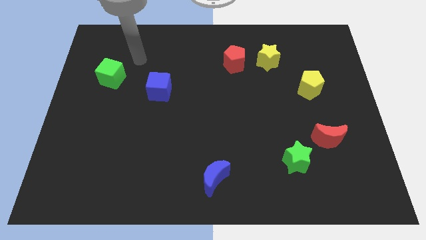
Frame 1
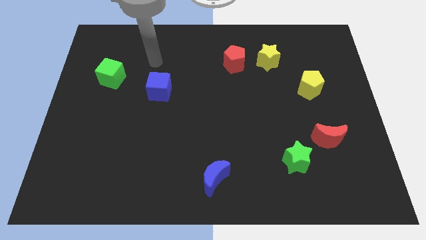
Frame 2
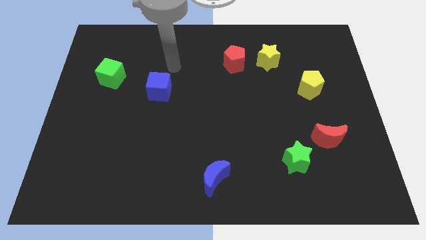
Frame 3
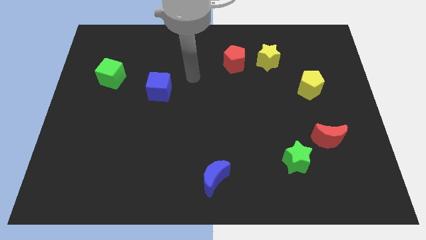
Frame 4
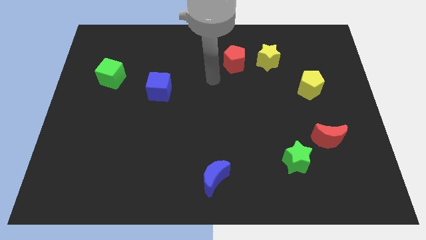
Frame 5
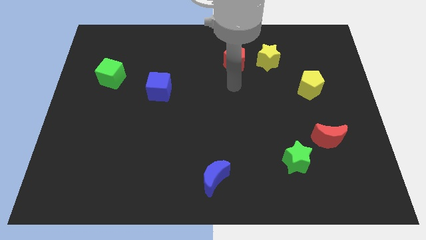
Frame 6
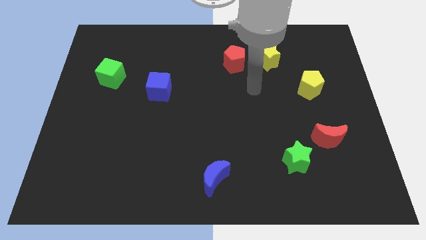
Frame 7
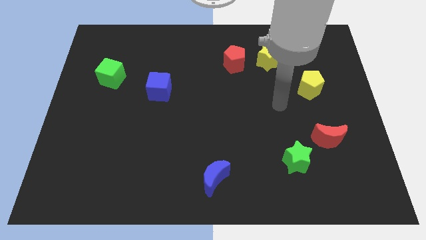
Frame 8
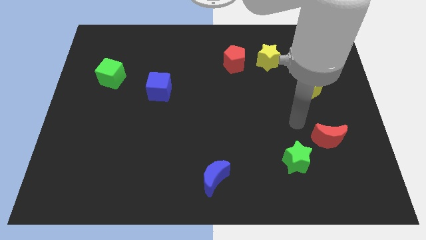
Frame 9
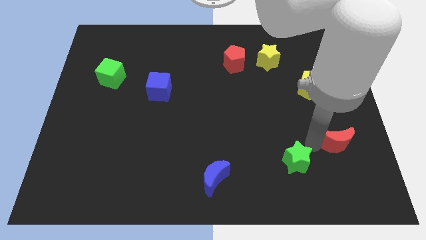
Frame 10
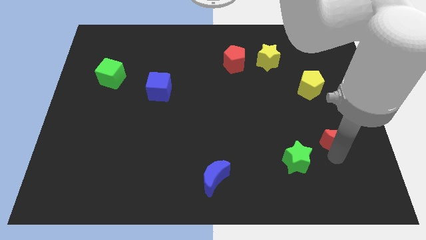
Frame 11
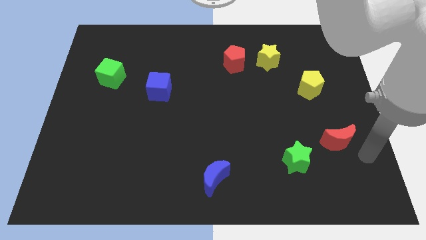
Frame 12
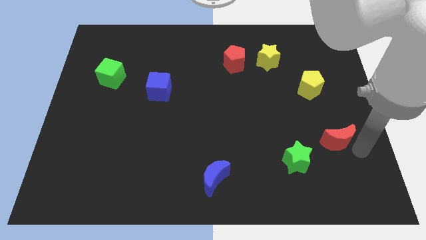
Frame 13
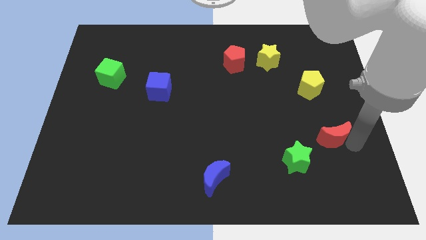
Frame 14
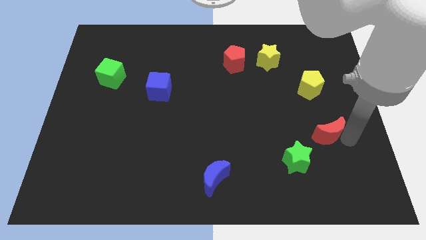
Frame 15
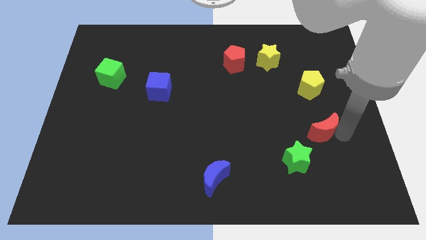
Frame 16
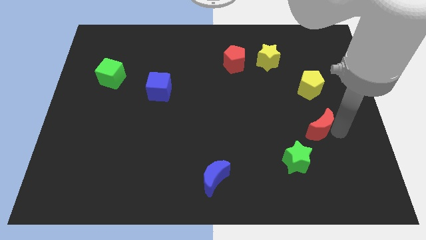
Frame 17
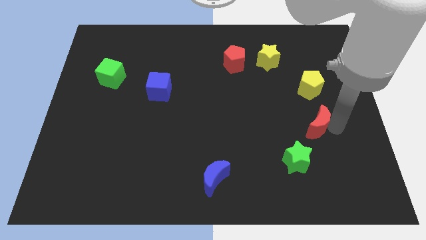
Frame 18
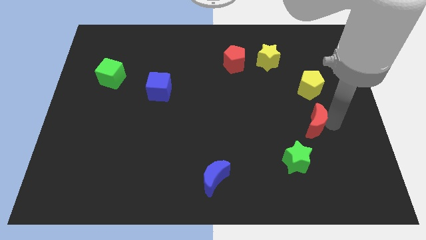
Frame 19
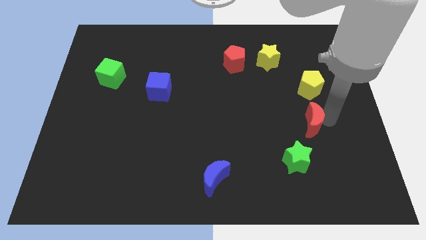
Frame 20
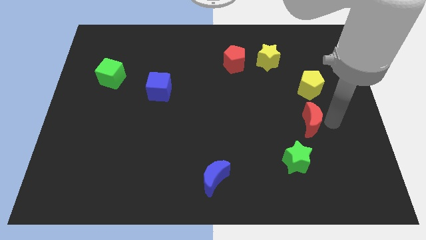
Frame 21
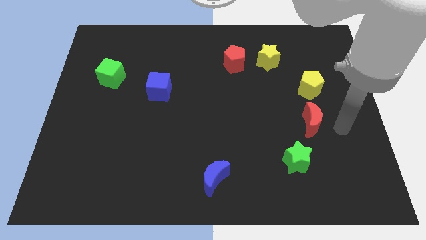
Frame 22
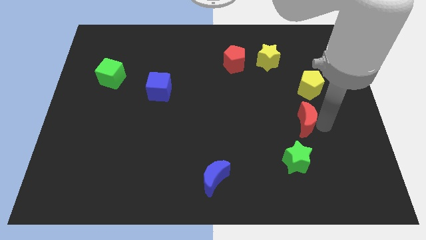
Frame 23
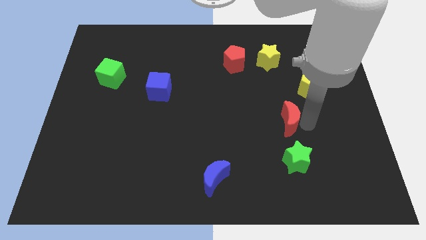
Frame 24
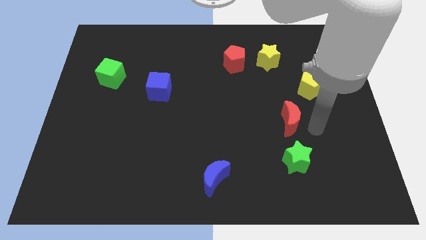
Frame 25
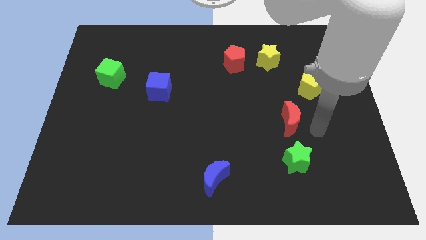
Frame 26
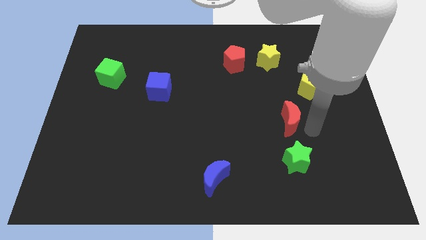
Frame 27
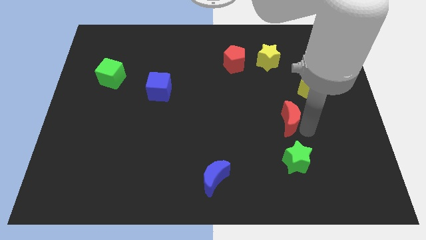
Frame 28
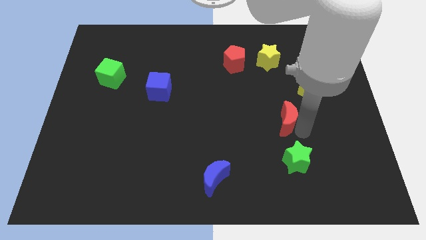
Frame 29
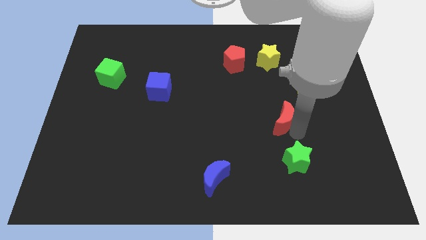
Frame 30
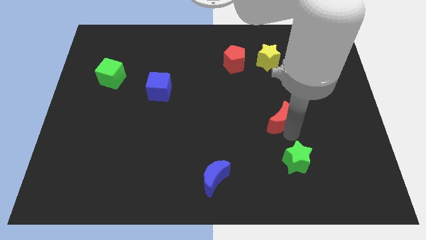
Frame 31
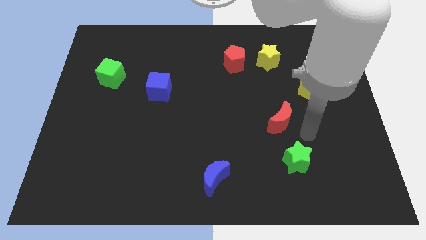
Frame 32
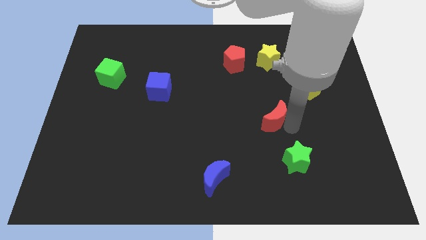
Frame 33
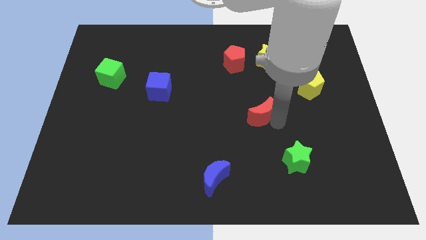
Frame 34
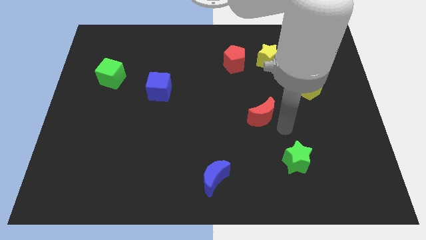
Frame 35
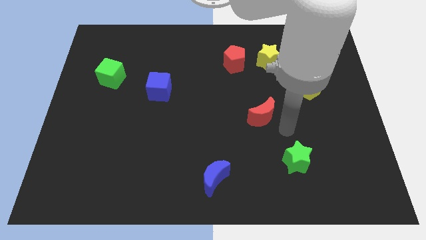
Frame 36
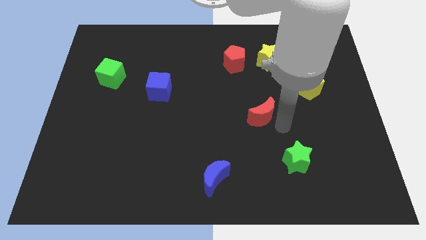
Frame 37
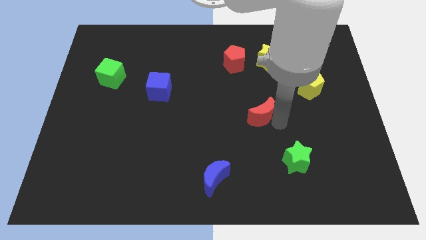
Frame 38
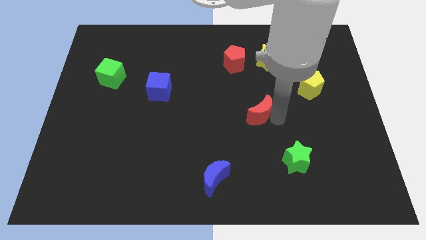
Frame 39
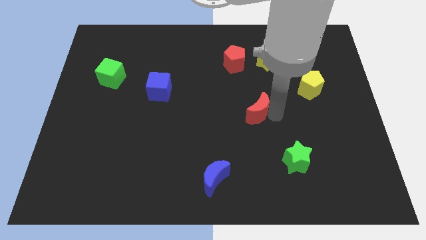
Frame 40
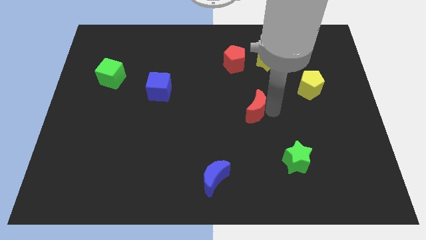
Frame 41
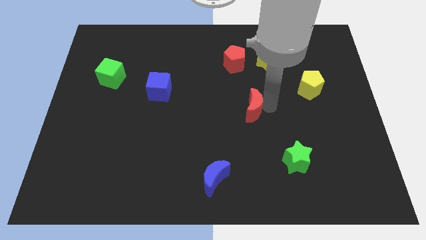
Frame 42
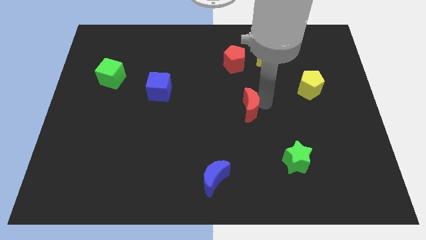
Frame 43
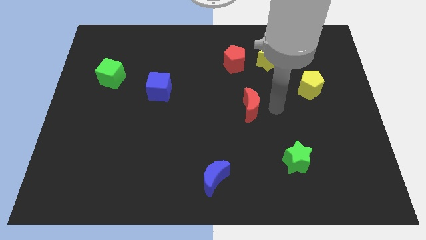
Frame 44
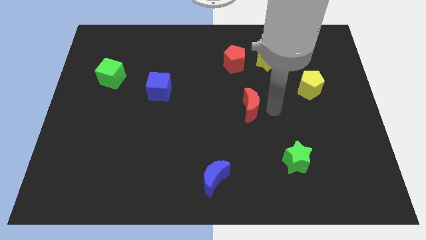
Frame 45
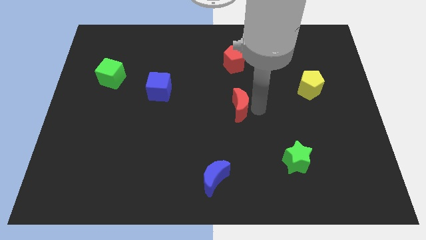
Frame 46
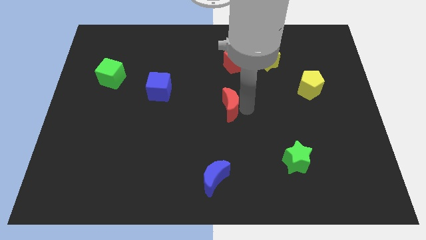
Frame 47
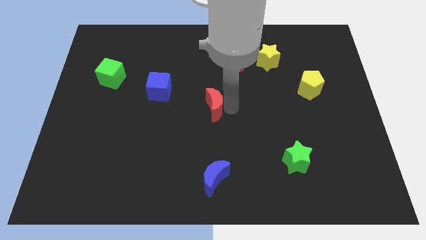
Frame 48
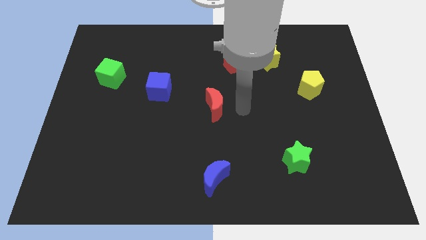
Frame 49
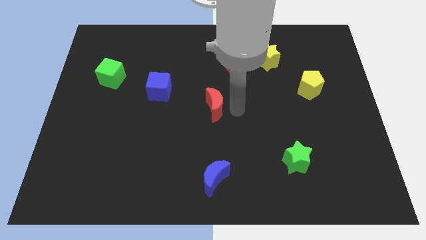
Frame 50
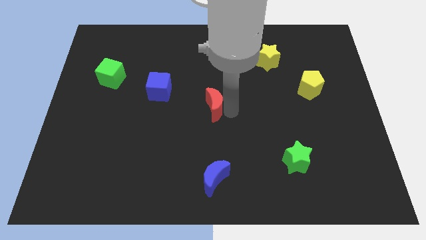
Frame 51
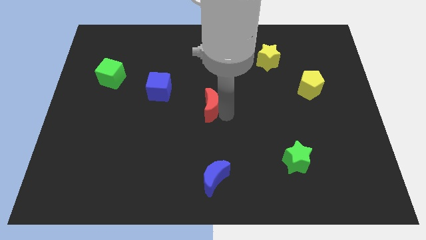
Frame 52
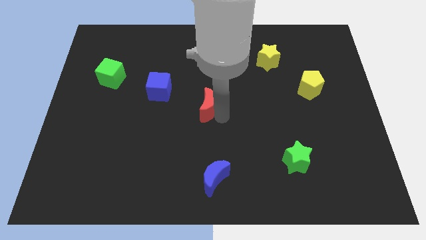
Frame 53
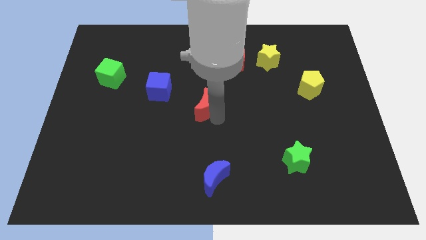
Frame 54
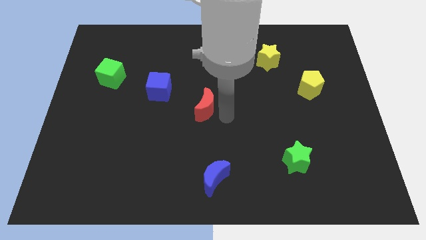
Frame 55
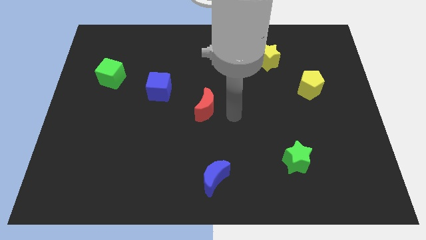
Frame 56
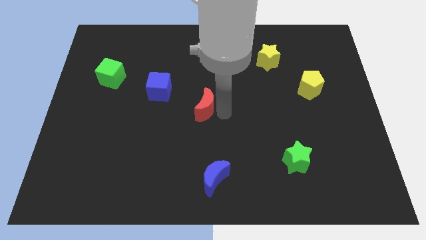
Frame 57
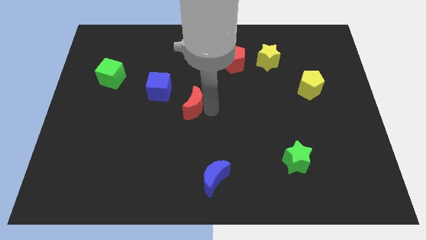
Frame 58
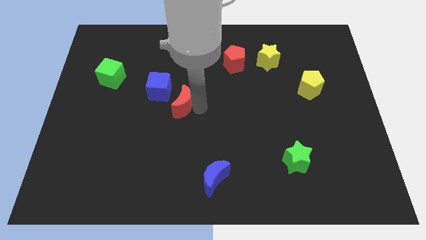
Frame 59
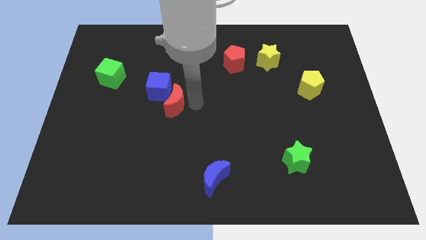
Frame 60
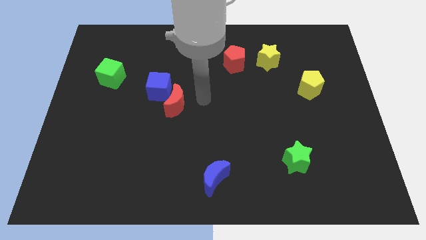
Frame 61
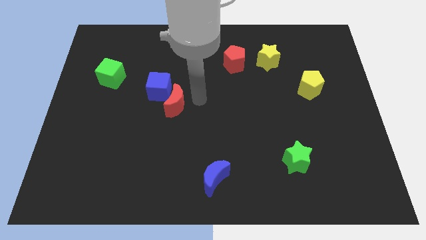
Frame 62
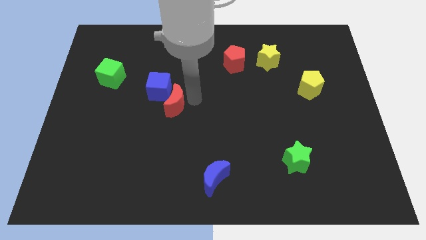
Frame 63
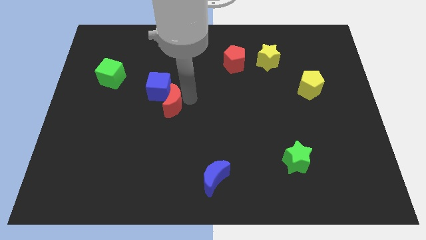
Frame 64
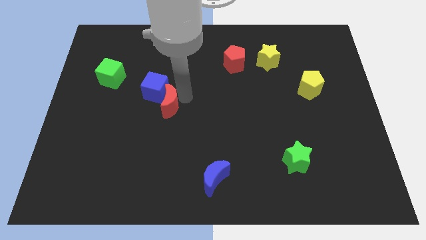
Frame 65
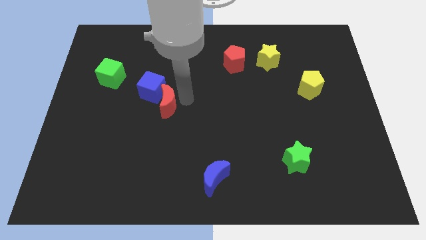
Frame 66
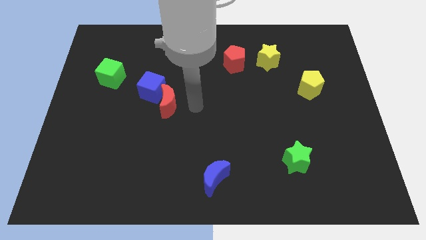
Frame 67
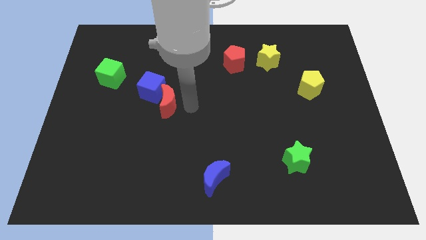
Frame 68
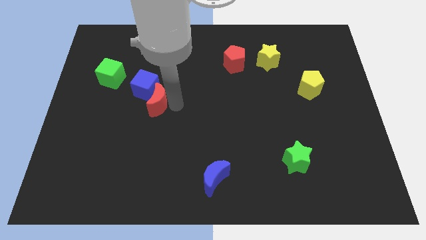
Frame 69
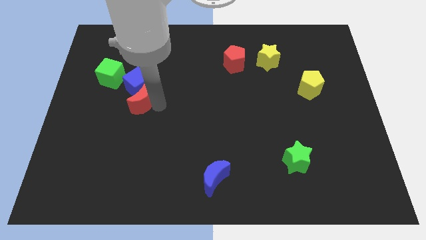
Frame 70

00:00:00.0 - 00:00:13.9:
push the red moon diagonally down and to the right of the green cube
